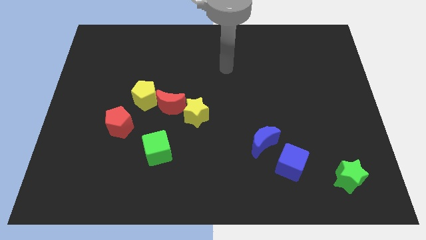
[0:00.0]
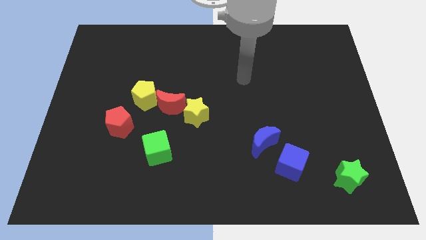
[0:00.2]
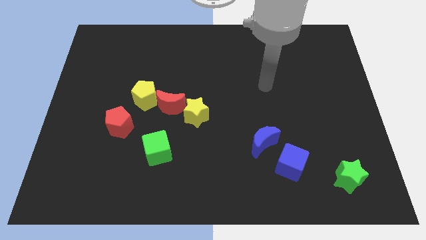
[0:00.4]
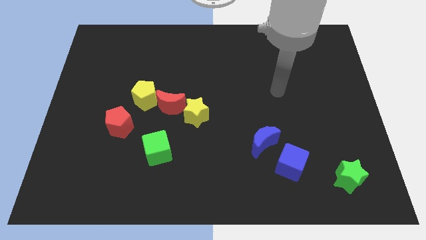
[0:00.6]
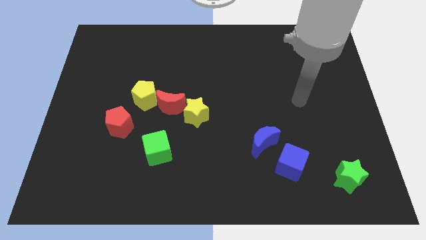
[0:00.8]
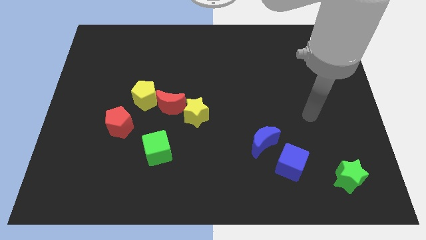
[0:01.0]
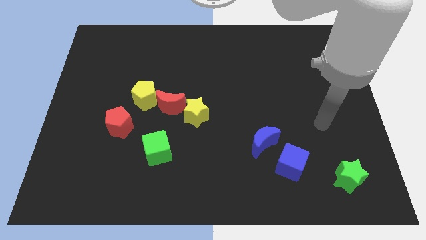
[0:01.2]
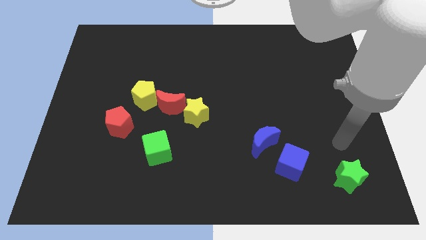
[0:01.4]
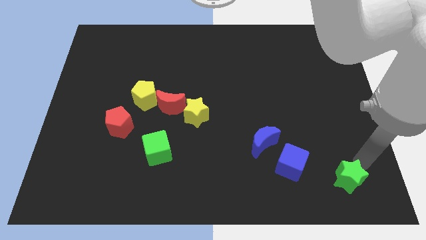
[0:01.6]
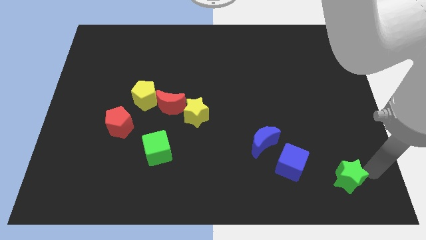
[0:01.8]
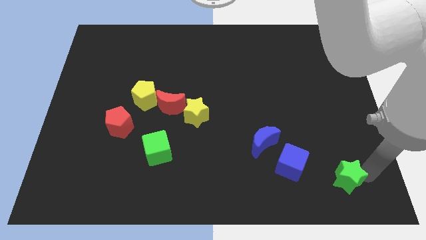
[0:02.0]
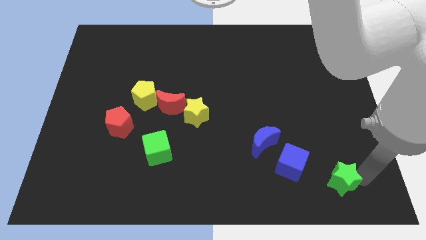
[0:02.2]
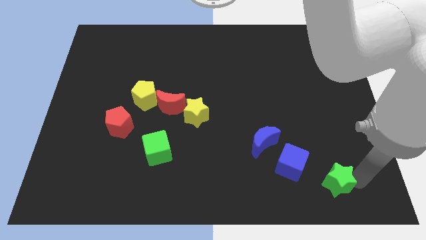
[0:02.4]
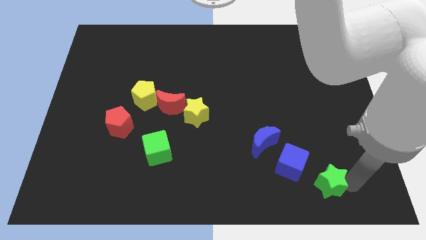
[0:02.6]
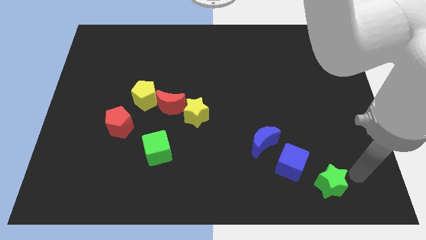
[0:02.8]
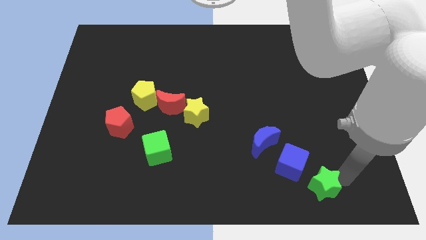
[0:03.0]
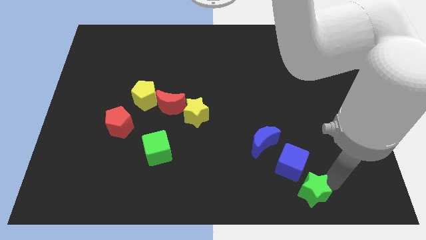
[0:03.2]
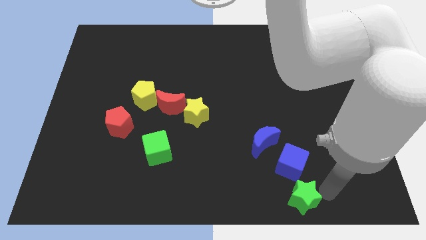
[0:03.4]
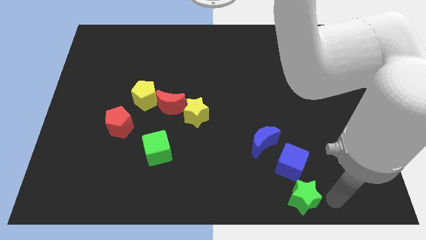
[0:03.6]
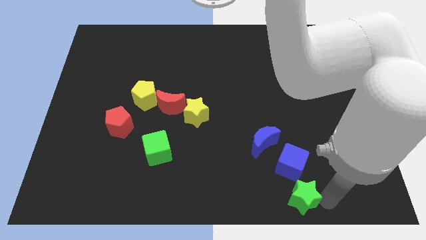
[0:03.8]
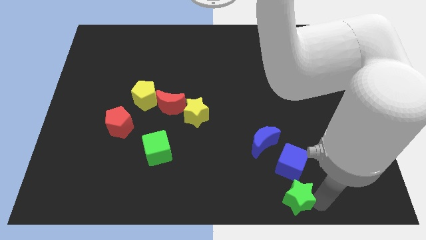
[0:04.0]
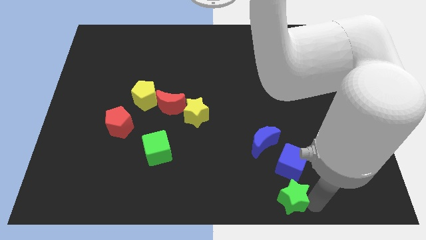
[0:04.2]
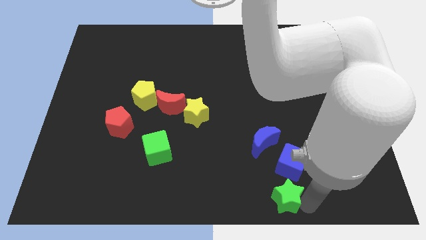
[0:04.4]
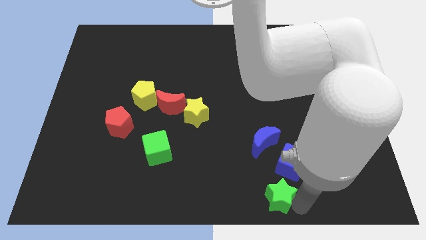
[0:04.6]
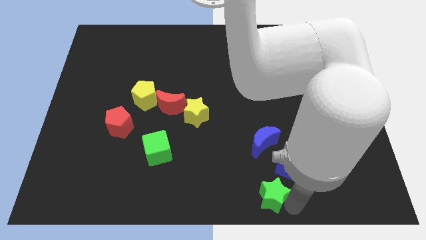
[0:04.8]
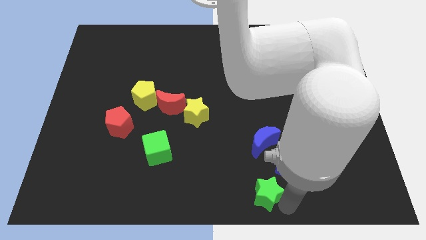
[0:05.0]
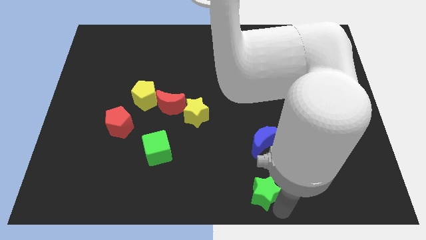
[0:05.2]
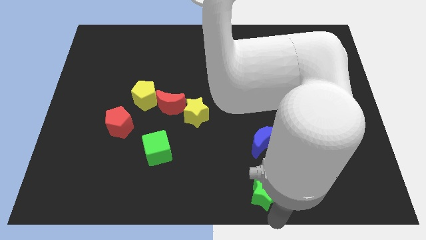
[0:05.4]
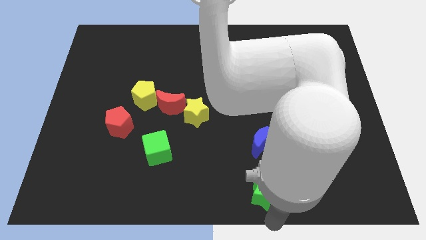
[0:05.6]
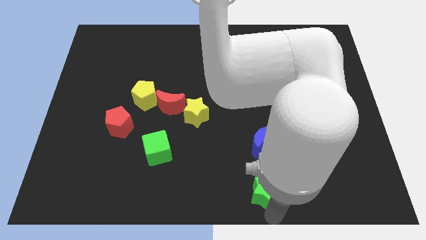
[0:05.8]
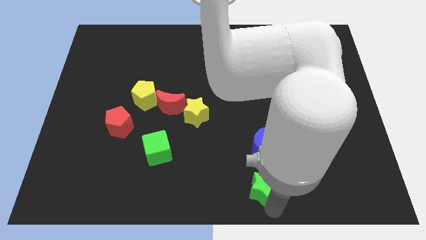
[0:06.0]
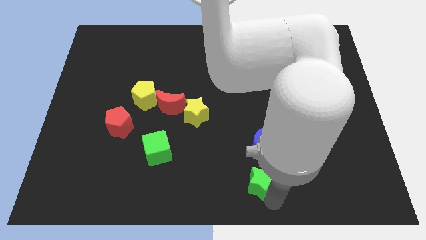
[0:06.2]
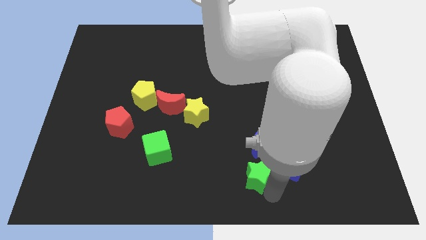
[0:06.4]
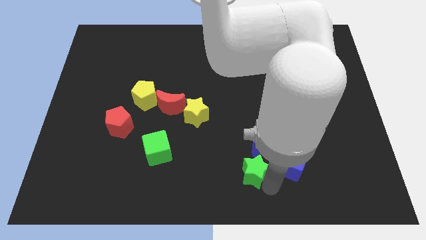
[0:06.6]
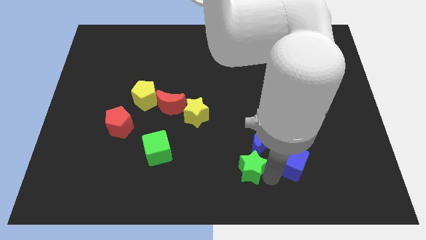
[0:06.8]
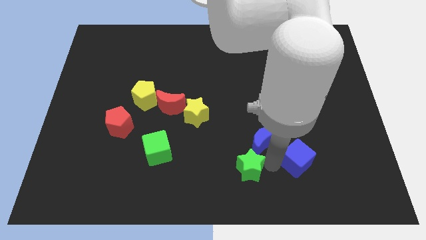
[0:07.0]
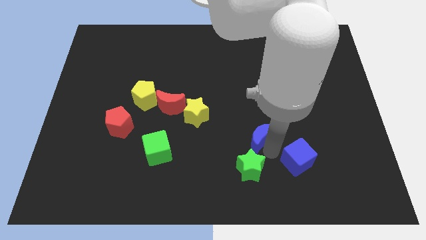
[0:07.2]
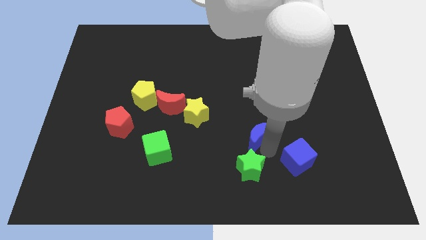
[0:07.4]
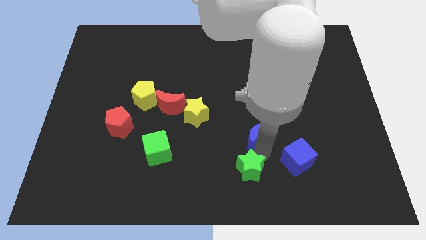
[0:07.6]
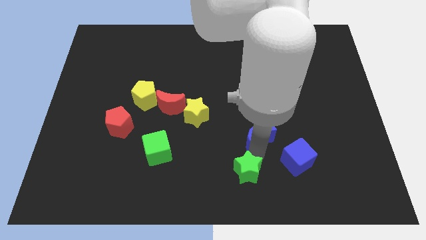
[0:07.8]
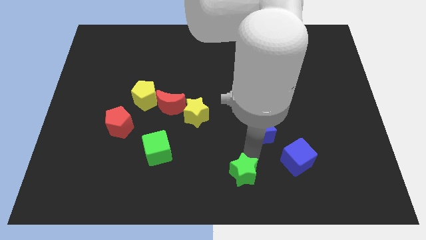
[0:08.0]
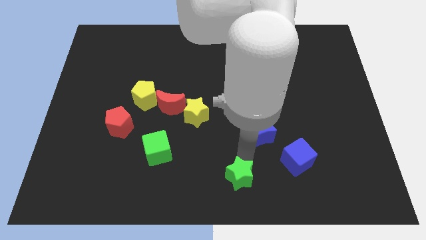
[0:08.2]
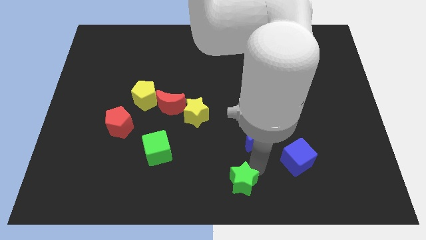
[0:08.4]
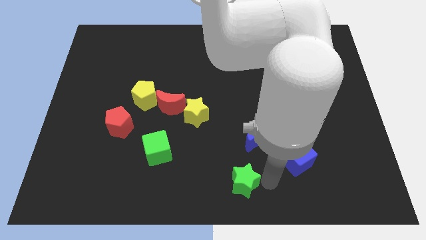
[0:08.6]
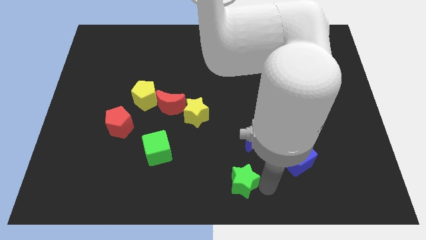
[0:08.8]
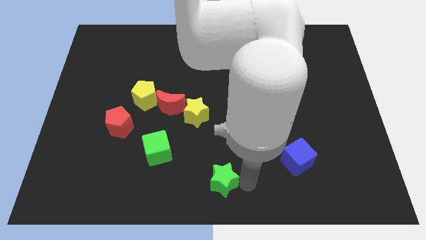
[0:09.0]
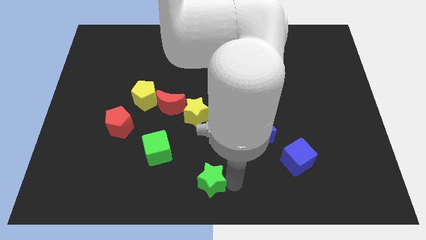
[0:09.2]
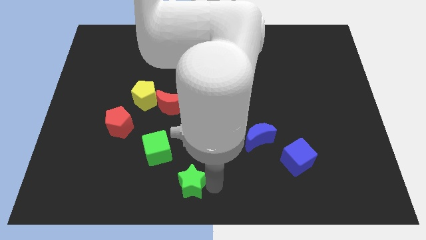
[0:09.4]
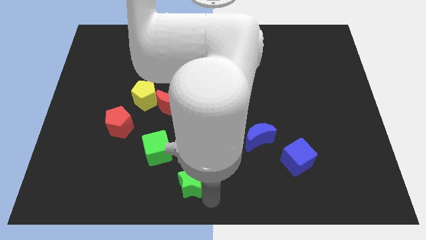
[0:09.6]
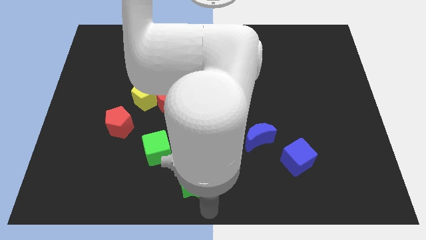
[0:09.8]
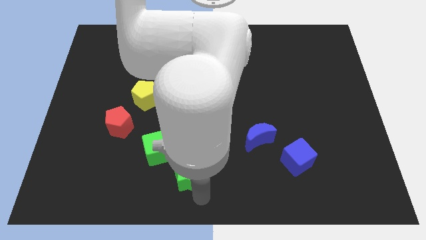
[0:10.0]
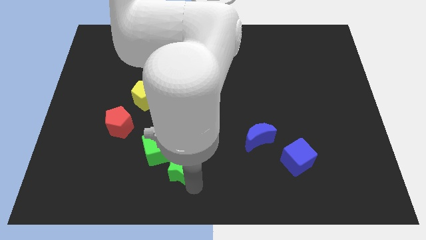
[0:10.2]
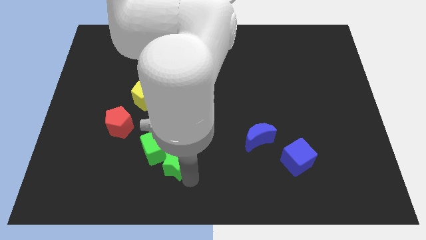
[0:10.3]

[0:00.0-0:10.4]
put the green star next to the green cube

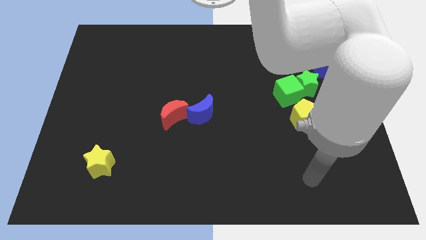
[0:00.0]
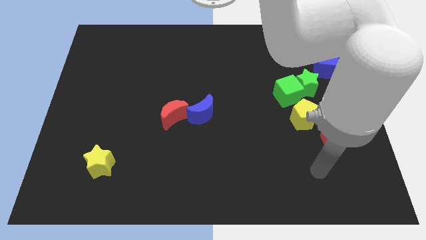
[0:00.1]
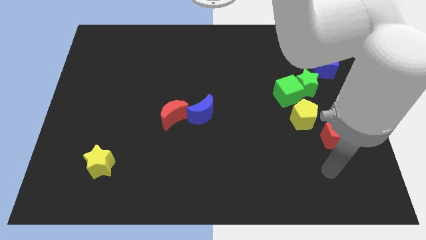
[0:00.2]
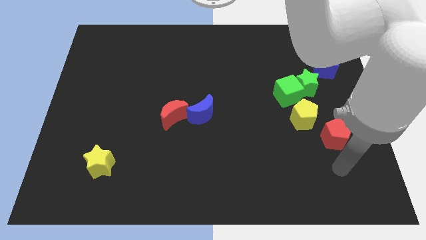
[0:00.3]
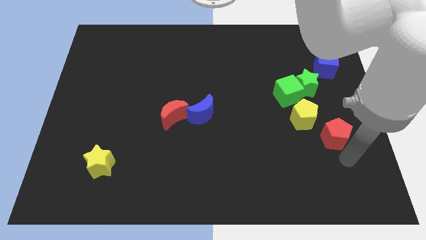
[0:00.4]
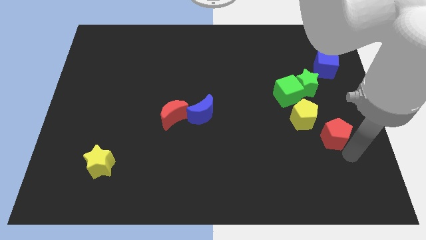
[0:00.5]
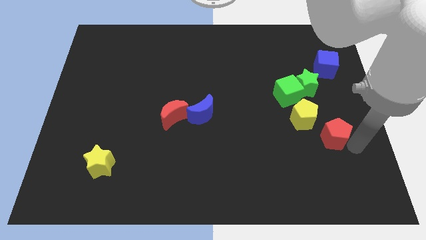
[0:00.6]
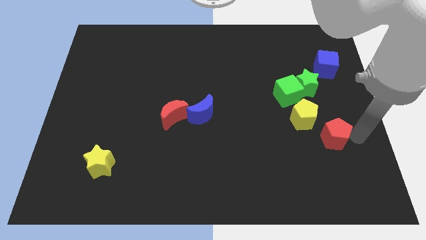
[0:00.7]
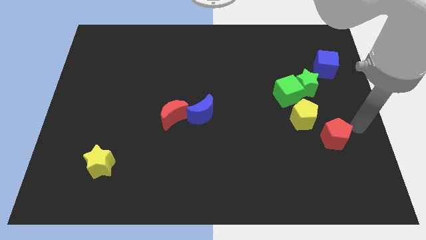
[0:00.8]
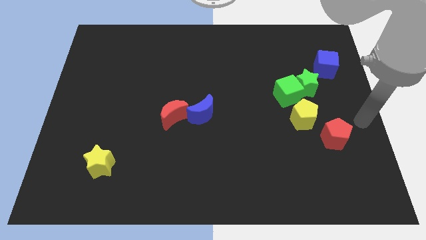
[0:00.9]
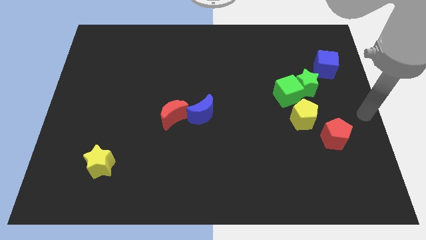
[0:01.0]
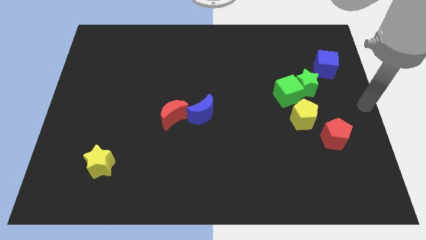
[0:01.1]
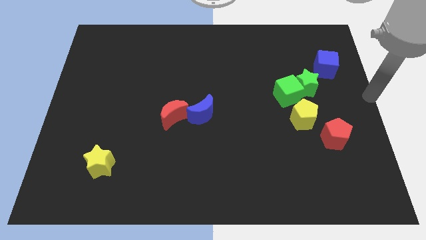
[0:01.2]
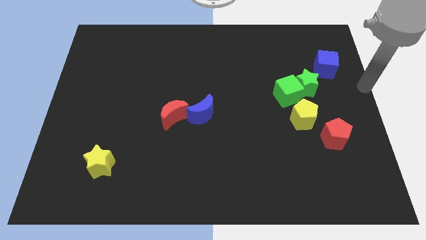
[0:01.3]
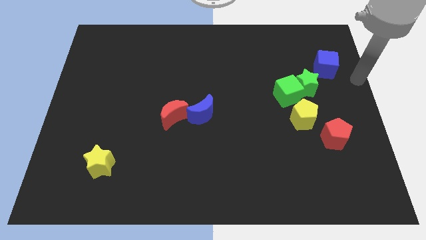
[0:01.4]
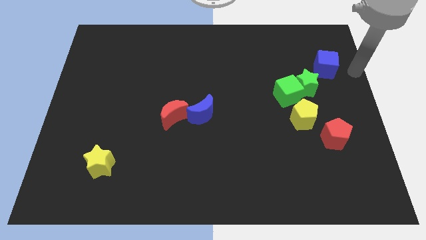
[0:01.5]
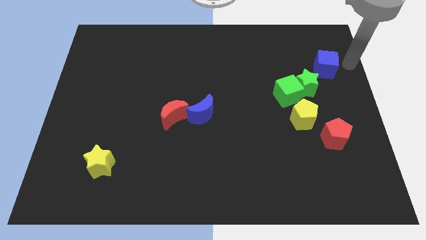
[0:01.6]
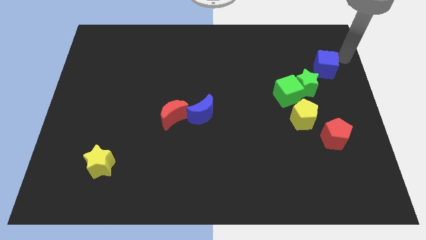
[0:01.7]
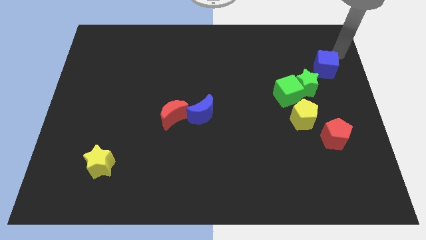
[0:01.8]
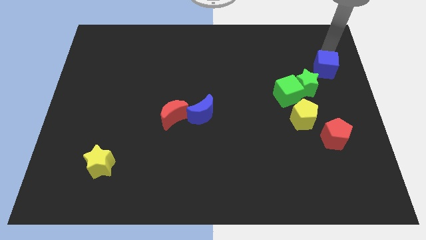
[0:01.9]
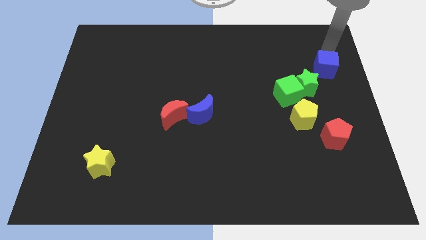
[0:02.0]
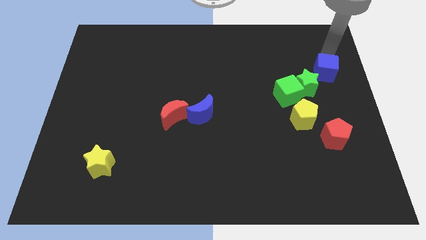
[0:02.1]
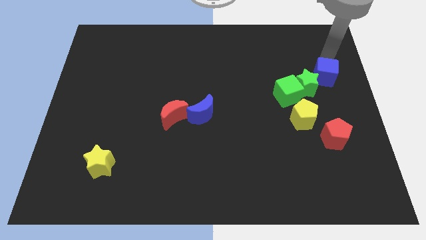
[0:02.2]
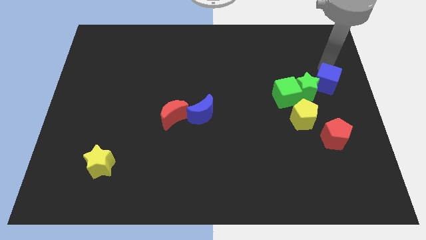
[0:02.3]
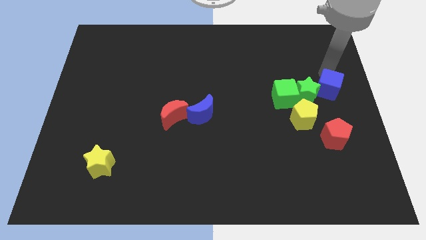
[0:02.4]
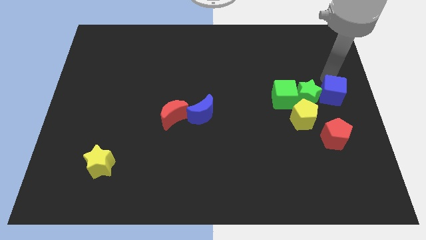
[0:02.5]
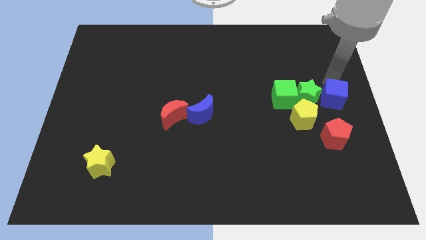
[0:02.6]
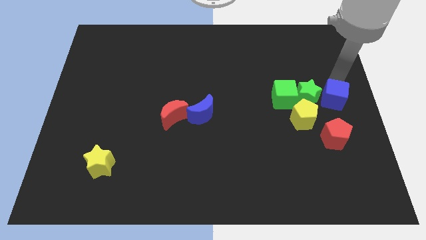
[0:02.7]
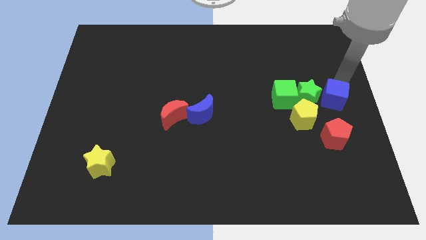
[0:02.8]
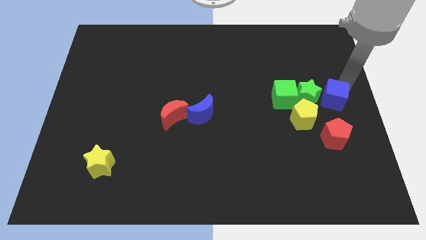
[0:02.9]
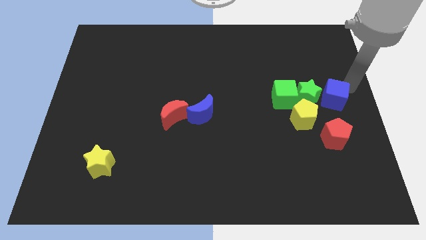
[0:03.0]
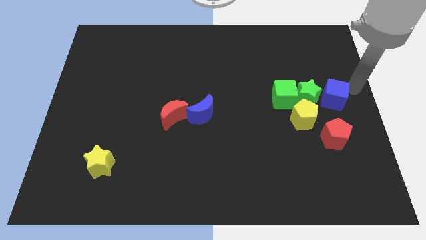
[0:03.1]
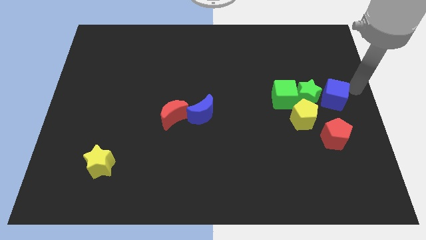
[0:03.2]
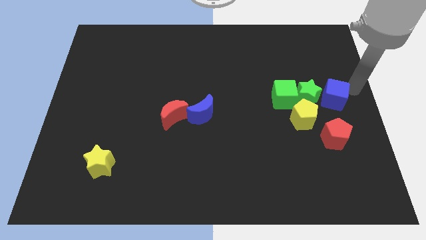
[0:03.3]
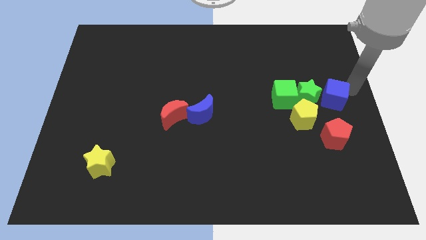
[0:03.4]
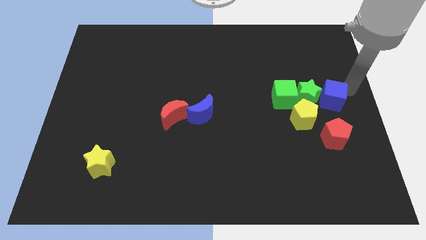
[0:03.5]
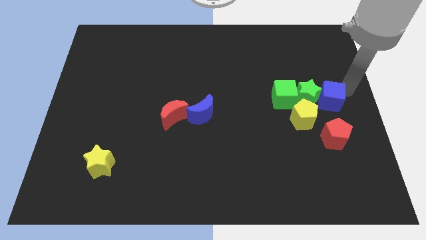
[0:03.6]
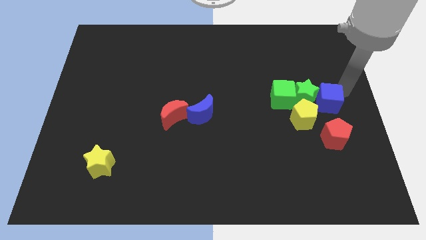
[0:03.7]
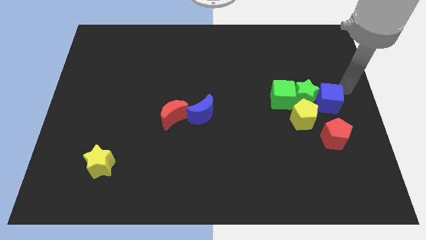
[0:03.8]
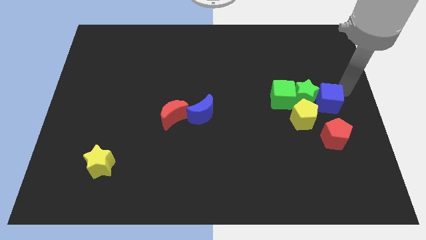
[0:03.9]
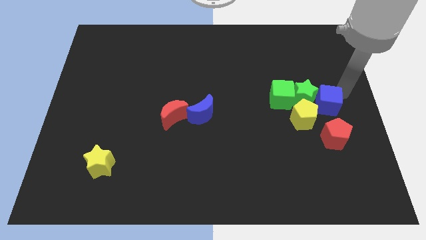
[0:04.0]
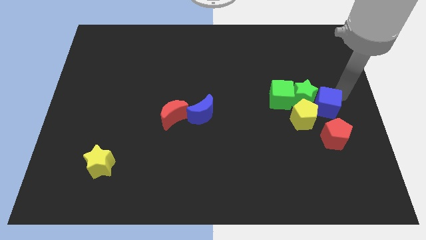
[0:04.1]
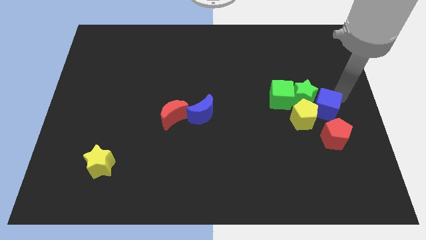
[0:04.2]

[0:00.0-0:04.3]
slide the blue cube to the yellow pentagon
